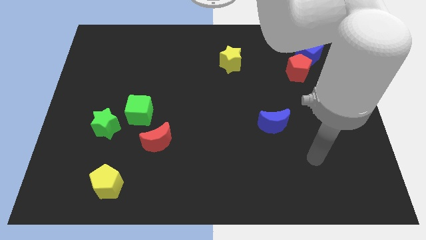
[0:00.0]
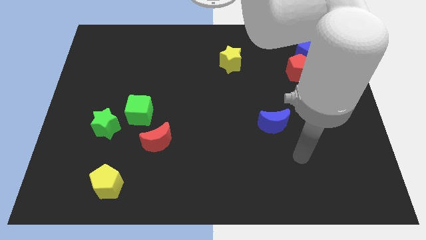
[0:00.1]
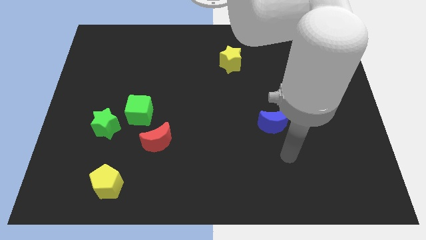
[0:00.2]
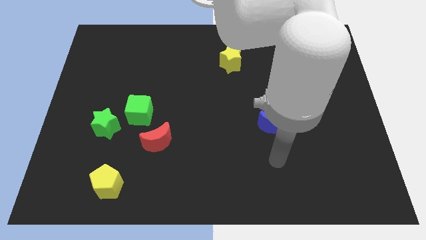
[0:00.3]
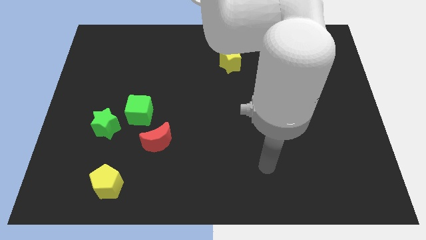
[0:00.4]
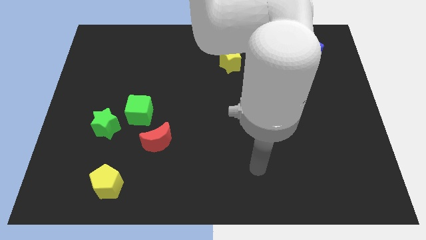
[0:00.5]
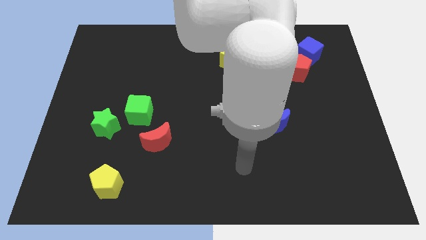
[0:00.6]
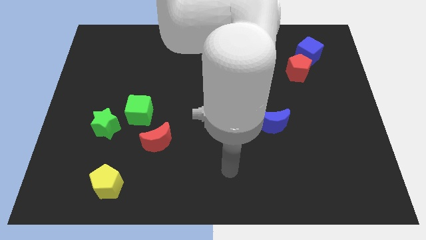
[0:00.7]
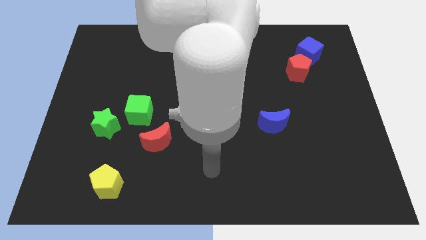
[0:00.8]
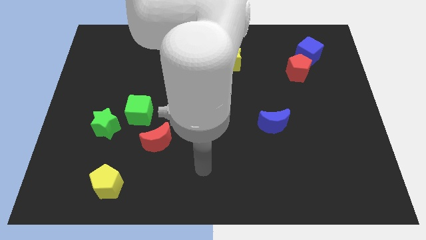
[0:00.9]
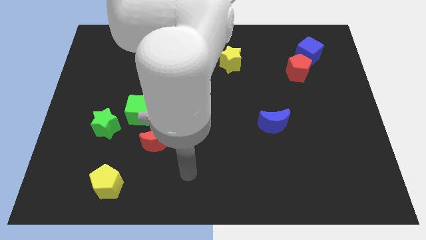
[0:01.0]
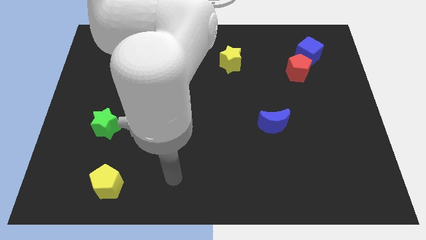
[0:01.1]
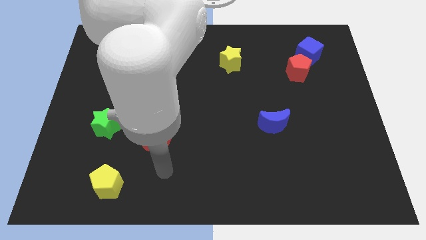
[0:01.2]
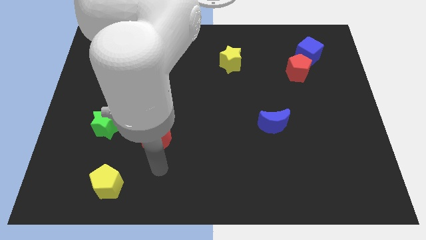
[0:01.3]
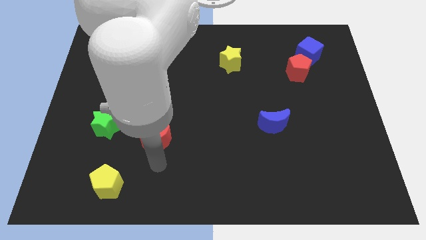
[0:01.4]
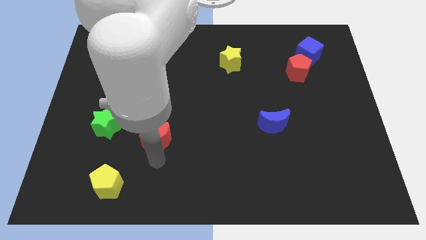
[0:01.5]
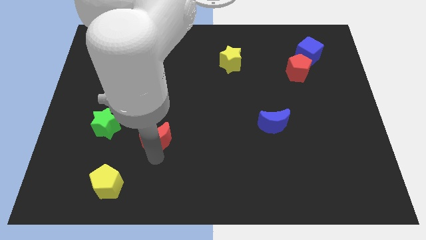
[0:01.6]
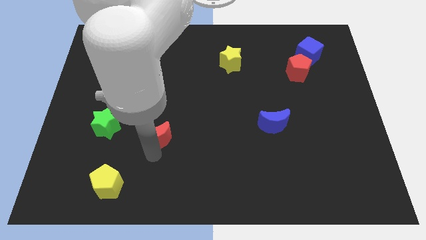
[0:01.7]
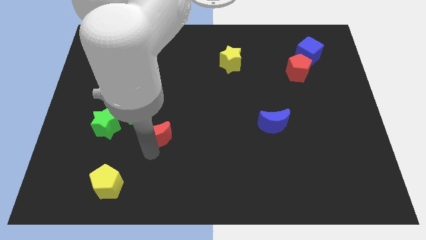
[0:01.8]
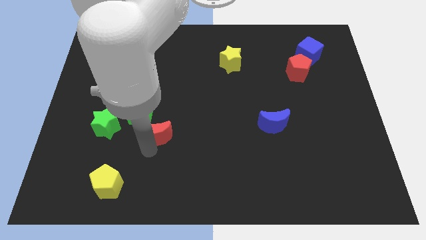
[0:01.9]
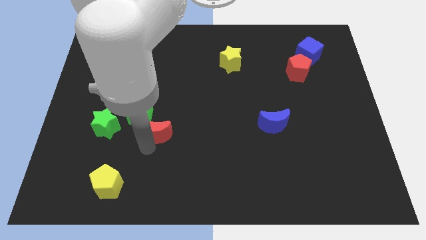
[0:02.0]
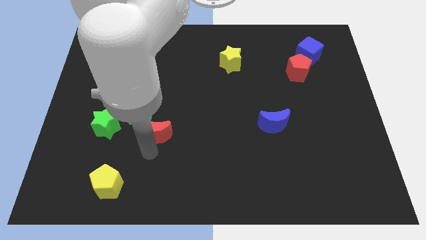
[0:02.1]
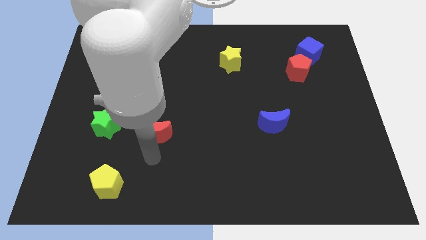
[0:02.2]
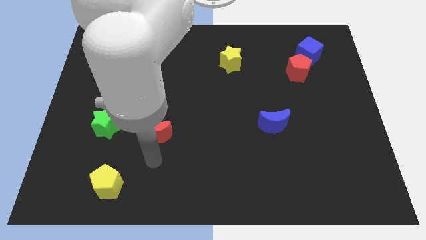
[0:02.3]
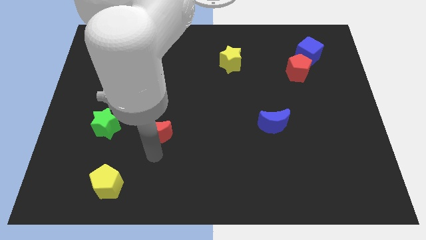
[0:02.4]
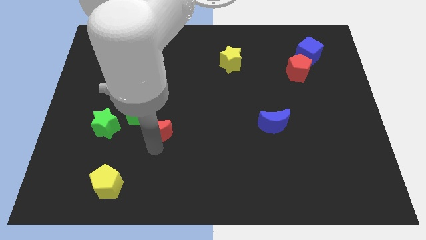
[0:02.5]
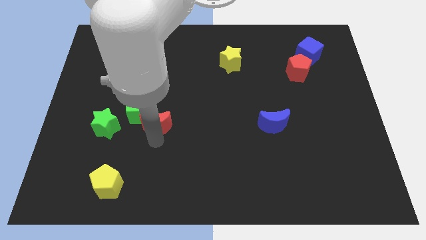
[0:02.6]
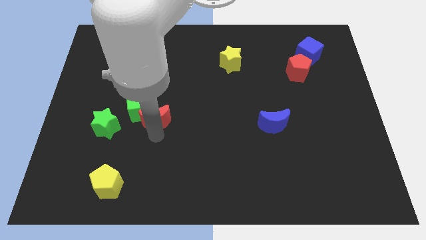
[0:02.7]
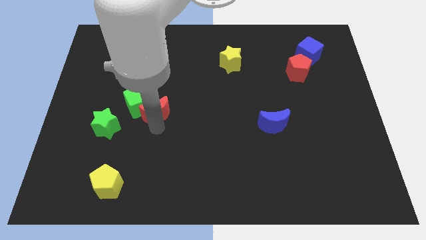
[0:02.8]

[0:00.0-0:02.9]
push the red moon a little upwards

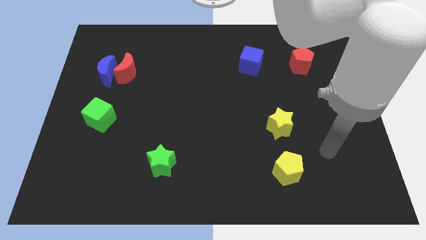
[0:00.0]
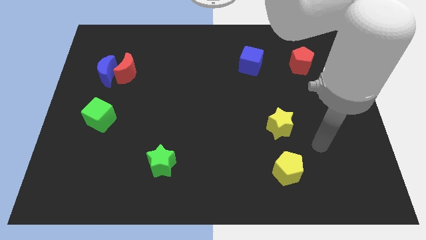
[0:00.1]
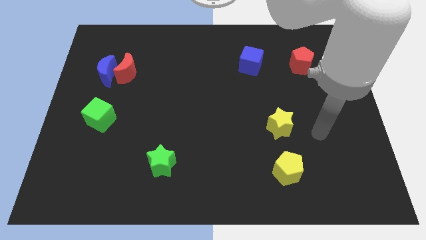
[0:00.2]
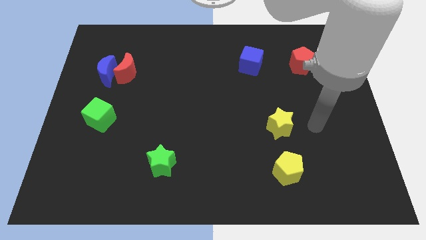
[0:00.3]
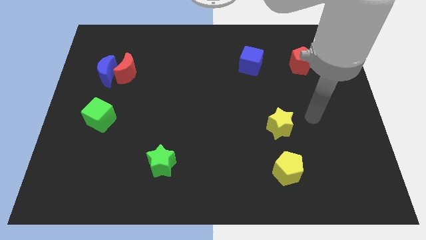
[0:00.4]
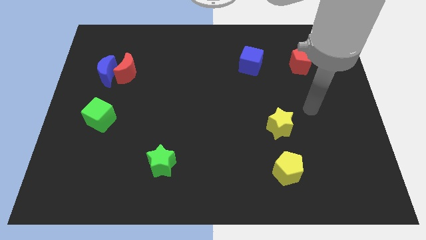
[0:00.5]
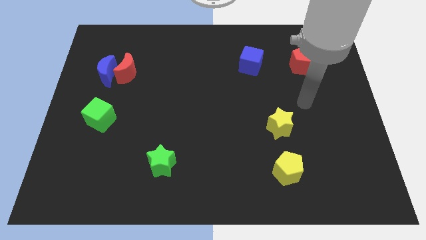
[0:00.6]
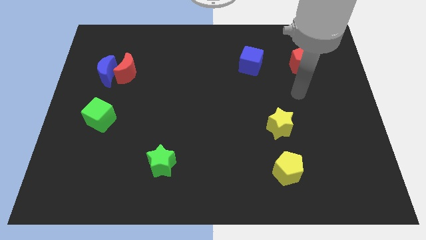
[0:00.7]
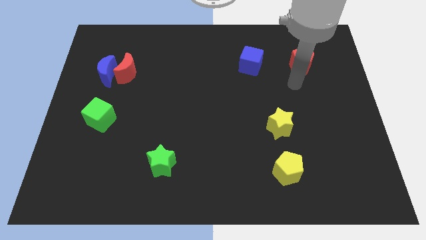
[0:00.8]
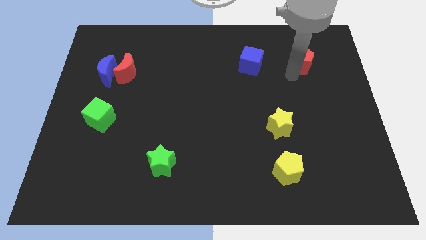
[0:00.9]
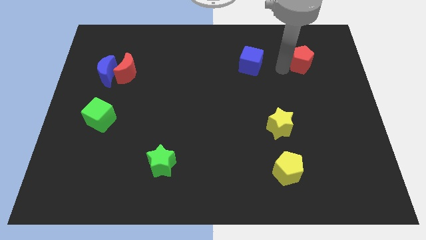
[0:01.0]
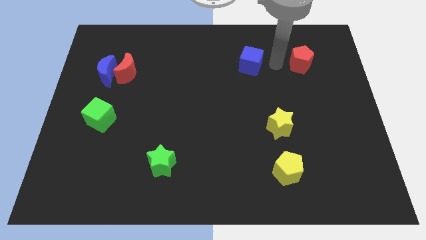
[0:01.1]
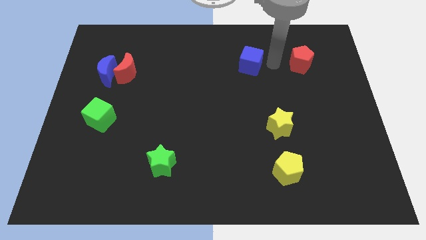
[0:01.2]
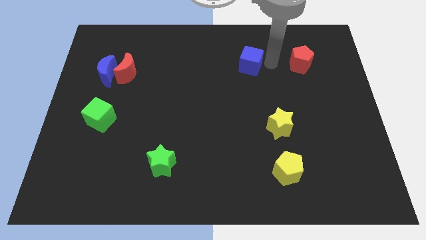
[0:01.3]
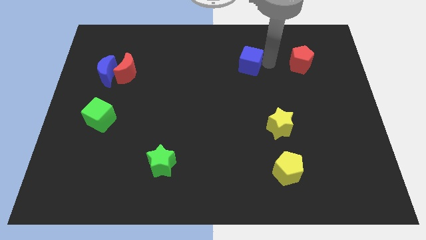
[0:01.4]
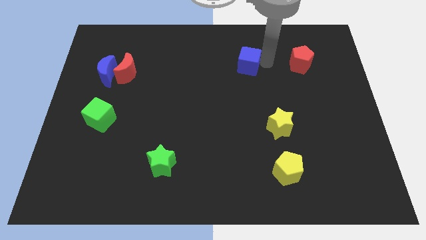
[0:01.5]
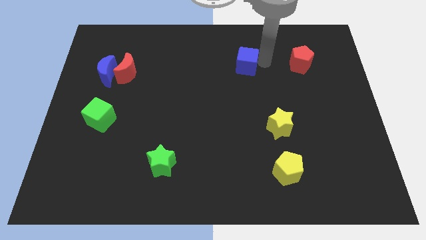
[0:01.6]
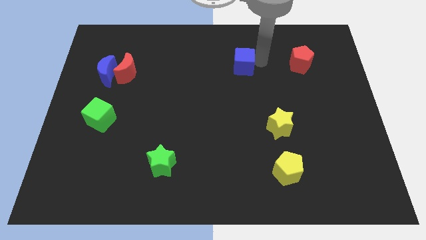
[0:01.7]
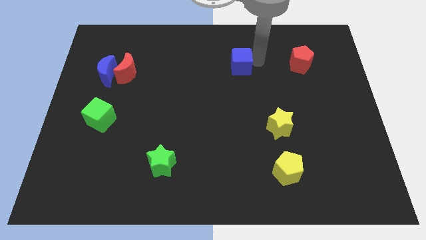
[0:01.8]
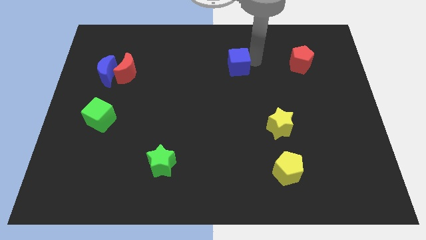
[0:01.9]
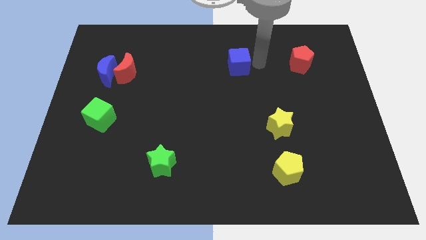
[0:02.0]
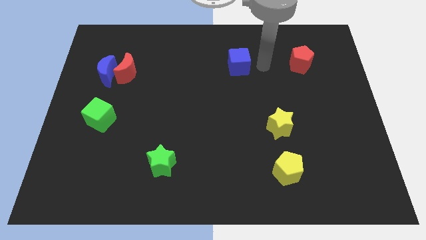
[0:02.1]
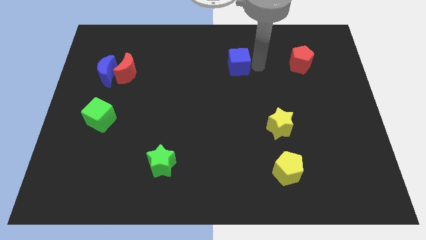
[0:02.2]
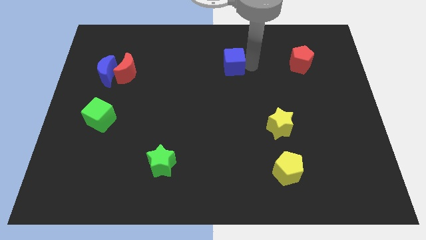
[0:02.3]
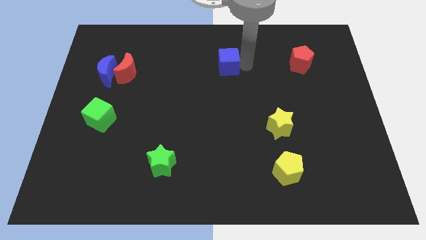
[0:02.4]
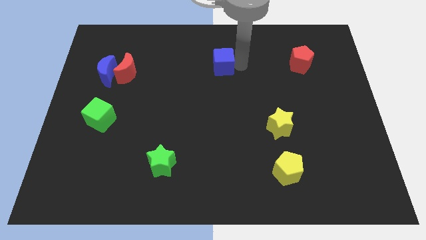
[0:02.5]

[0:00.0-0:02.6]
move the blue cube a bit left

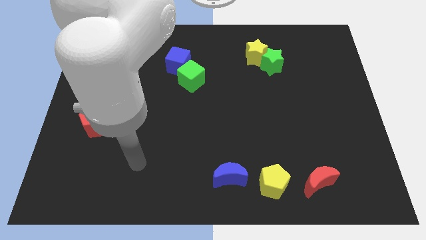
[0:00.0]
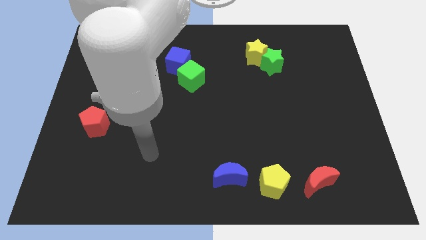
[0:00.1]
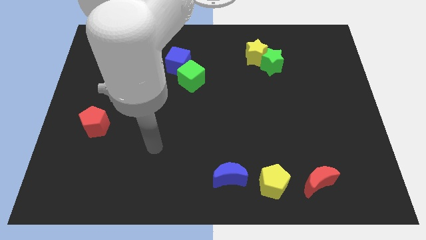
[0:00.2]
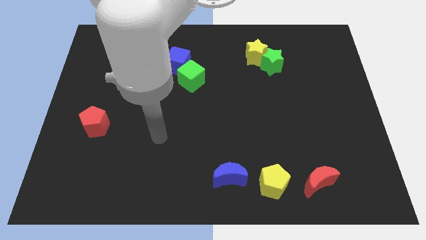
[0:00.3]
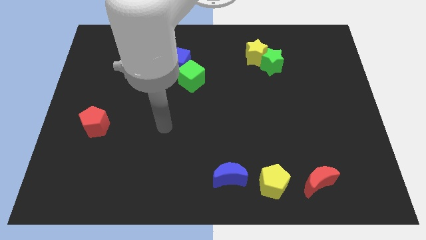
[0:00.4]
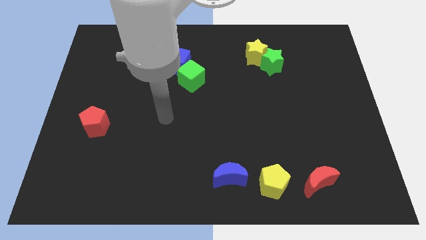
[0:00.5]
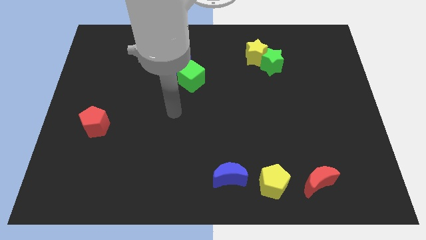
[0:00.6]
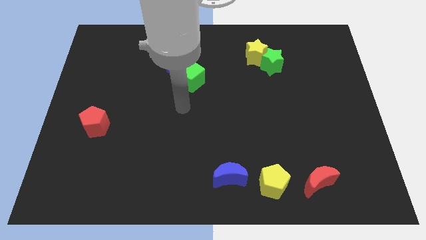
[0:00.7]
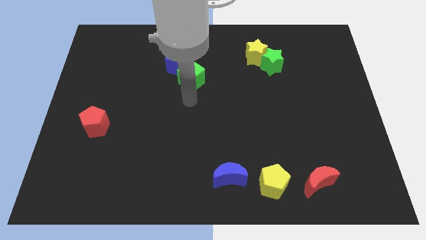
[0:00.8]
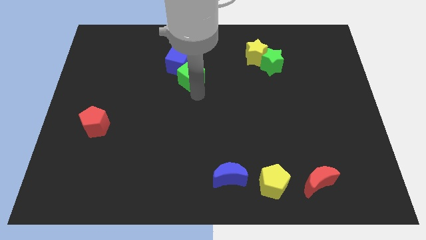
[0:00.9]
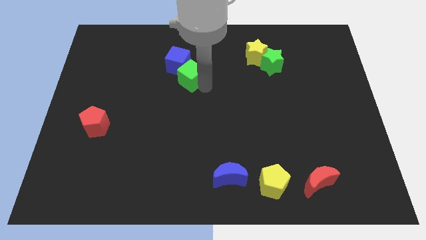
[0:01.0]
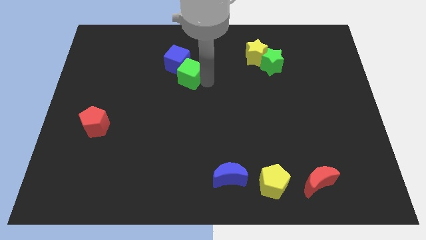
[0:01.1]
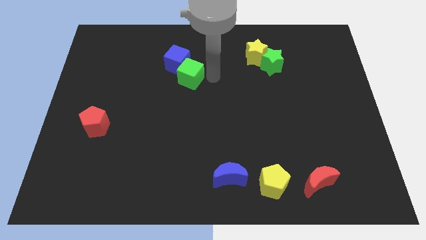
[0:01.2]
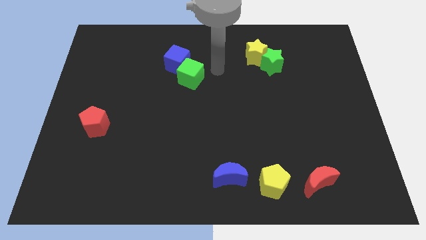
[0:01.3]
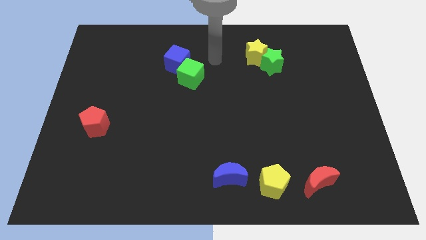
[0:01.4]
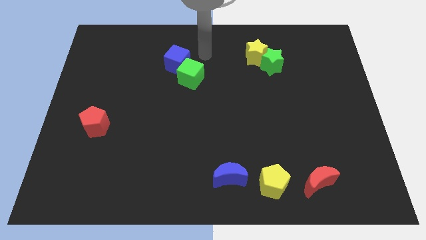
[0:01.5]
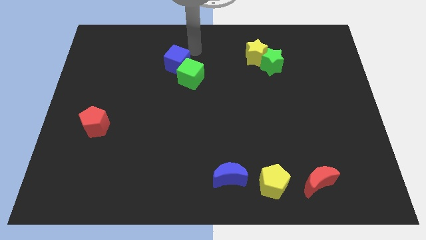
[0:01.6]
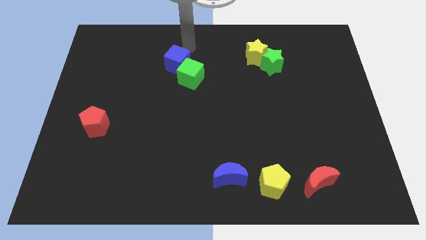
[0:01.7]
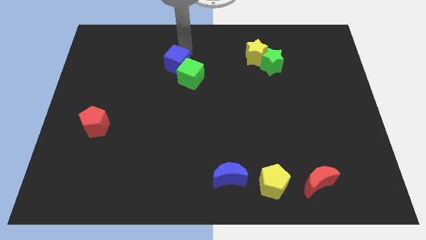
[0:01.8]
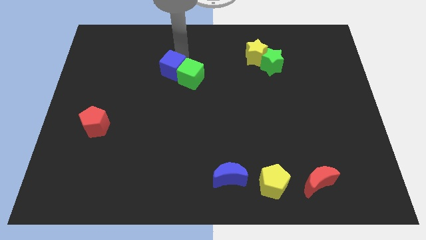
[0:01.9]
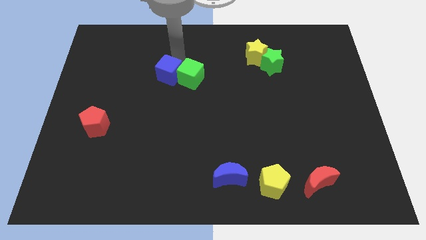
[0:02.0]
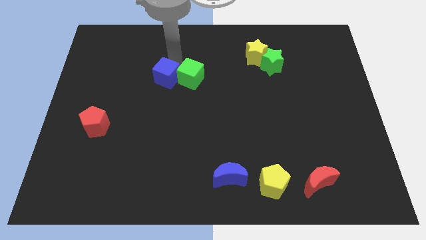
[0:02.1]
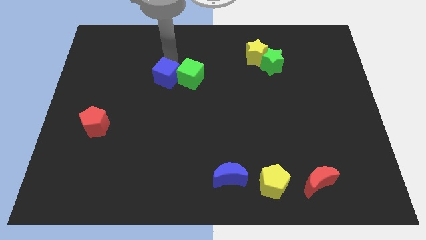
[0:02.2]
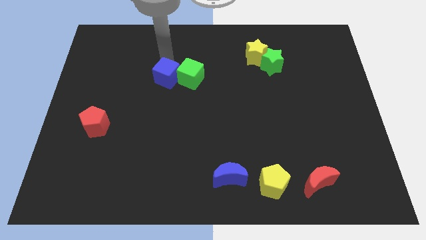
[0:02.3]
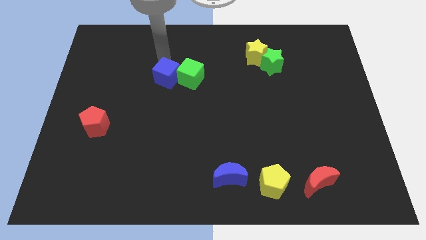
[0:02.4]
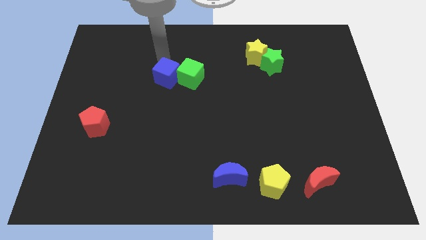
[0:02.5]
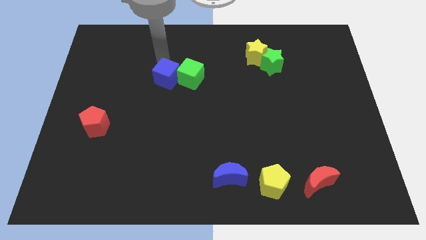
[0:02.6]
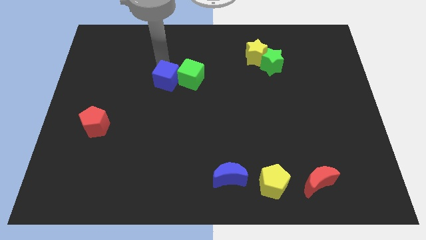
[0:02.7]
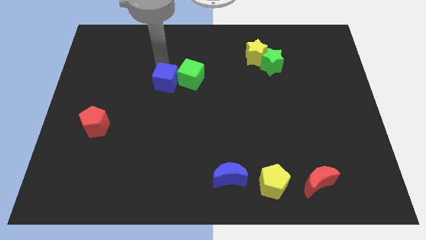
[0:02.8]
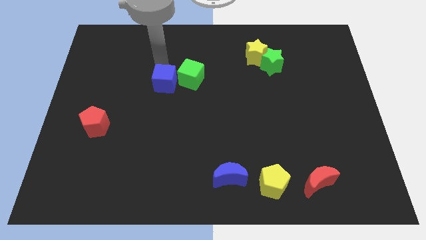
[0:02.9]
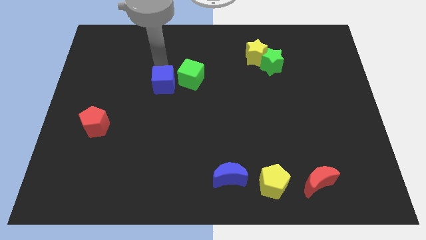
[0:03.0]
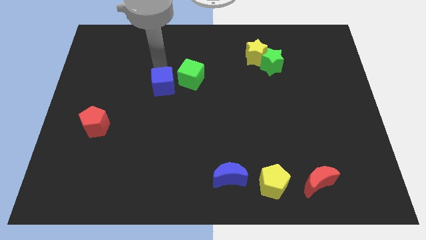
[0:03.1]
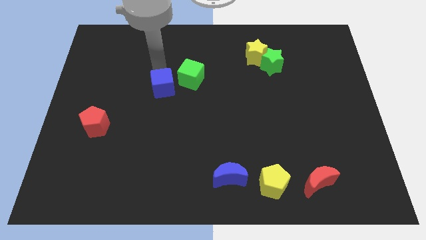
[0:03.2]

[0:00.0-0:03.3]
slightly move the blue cube downwards
